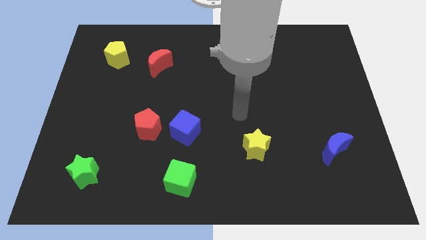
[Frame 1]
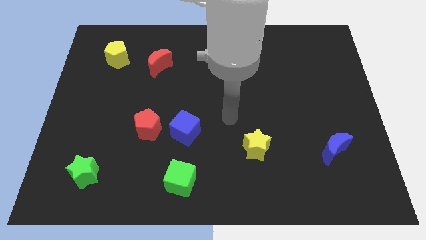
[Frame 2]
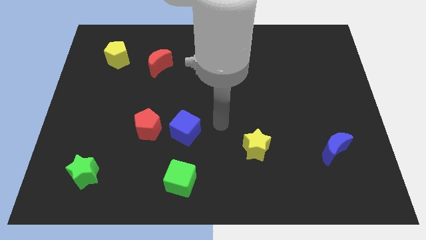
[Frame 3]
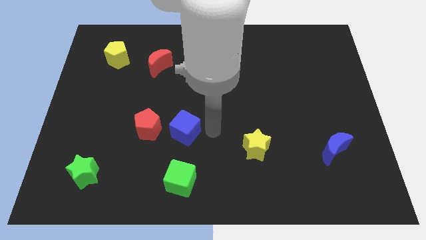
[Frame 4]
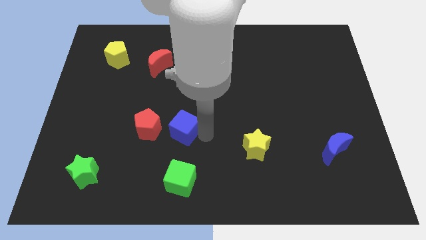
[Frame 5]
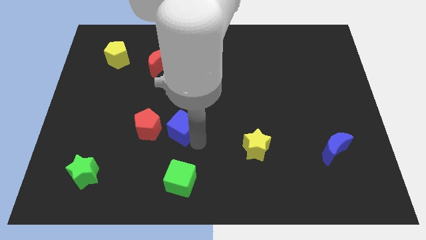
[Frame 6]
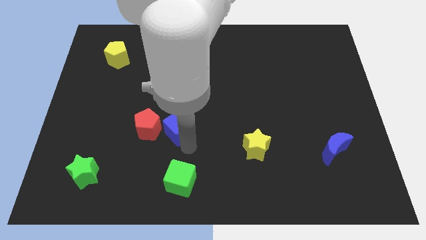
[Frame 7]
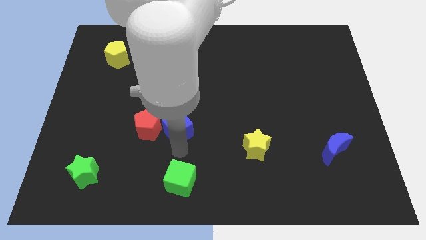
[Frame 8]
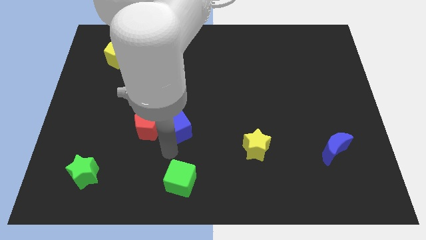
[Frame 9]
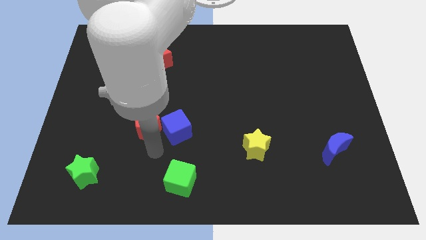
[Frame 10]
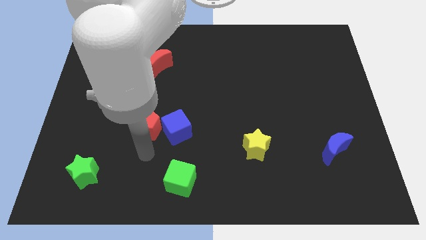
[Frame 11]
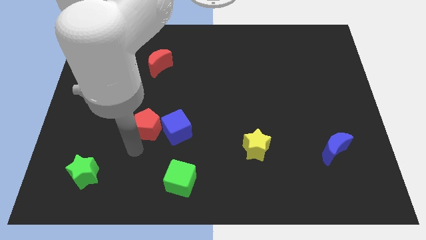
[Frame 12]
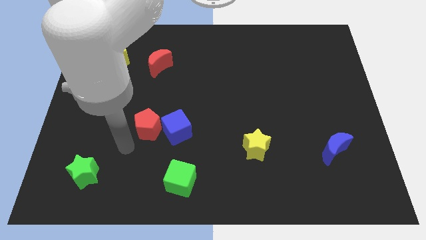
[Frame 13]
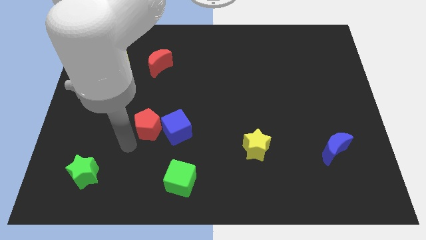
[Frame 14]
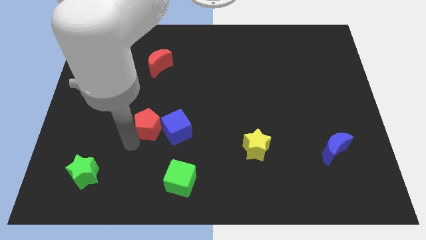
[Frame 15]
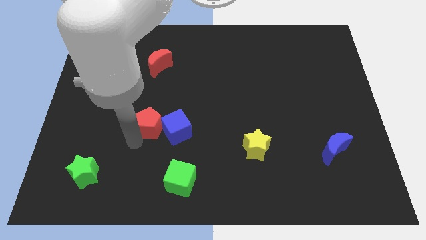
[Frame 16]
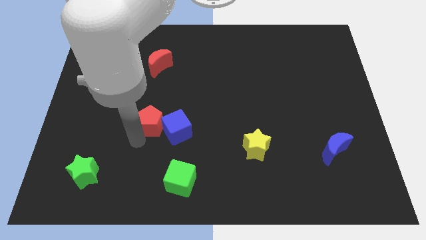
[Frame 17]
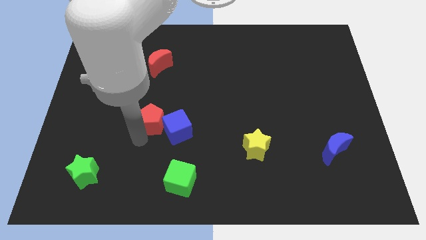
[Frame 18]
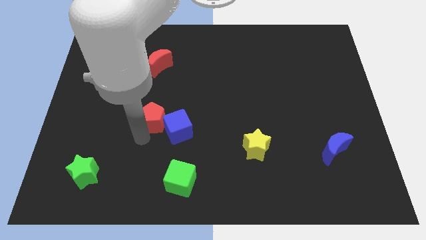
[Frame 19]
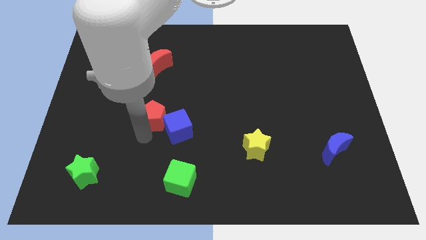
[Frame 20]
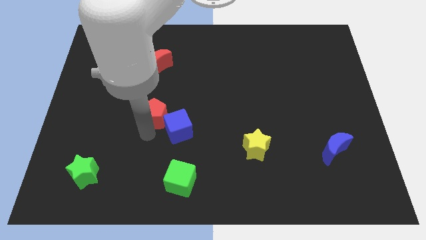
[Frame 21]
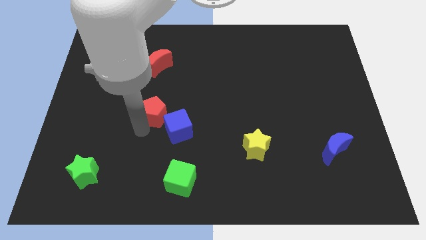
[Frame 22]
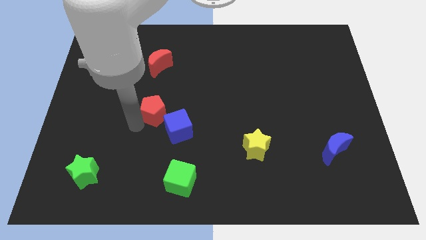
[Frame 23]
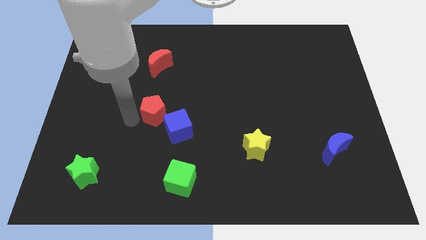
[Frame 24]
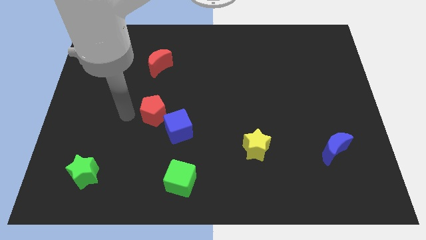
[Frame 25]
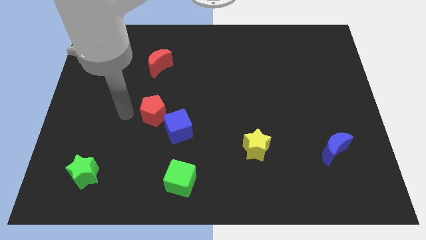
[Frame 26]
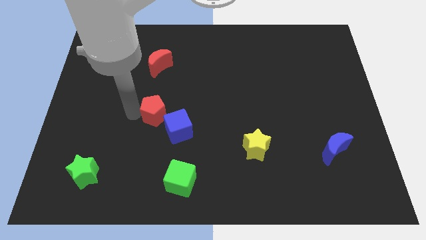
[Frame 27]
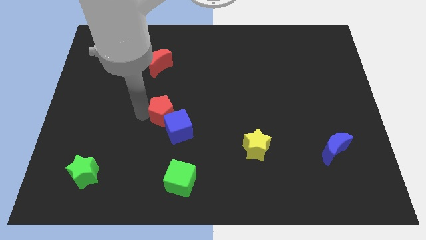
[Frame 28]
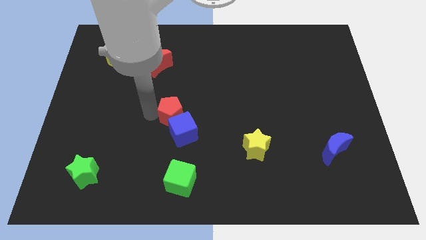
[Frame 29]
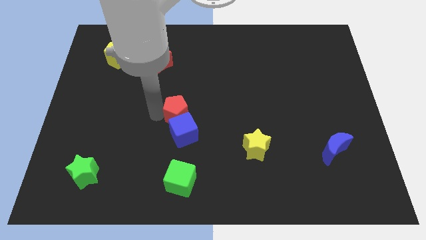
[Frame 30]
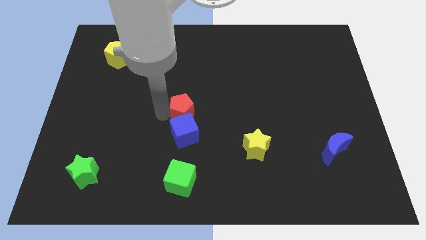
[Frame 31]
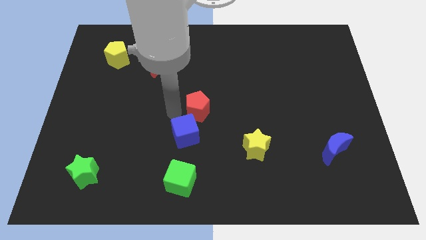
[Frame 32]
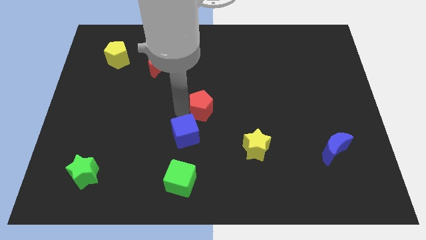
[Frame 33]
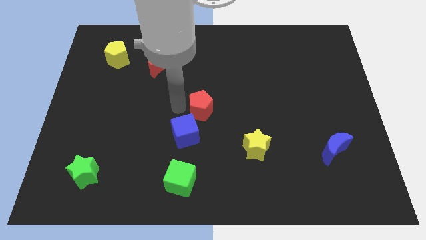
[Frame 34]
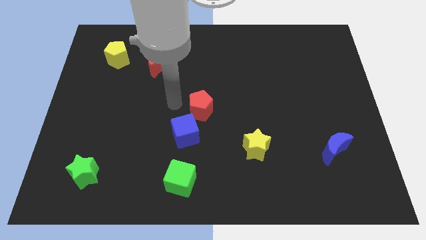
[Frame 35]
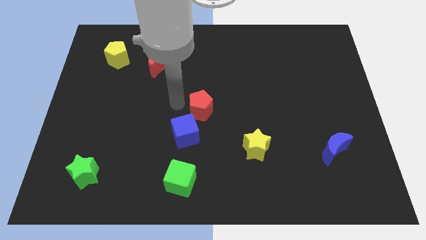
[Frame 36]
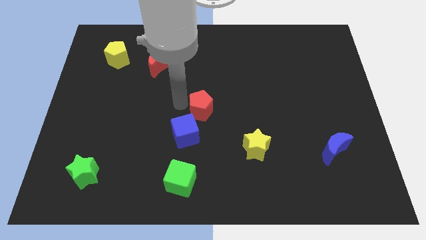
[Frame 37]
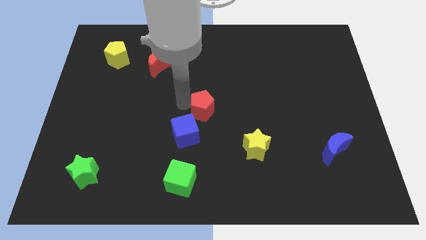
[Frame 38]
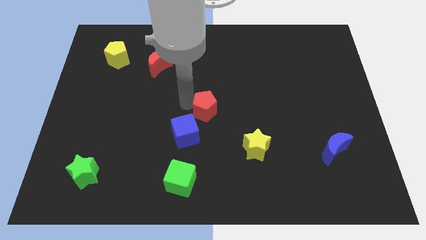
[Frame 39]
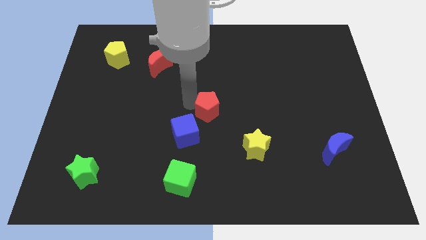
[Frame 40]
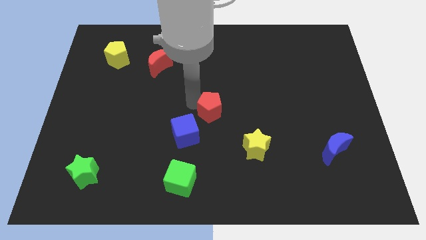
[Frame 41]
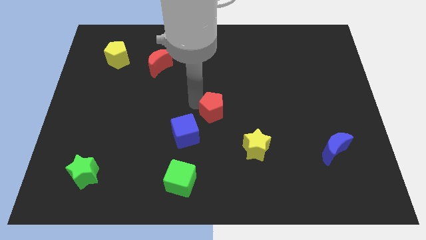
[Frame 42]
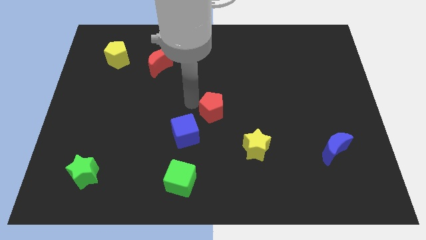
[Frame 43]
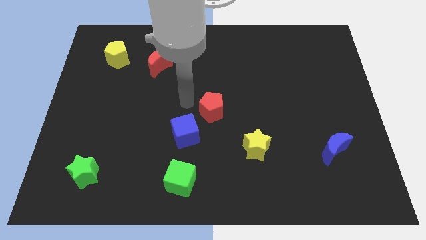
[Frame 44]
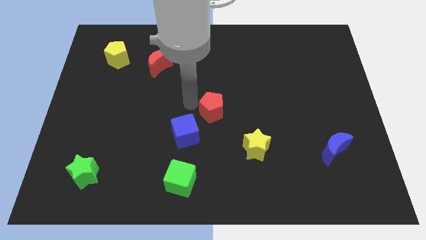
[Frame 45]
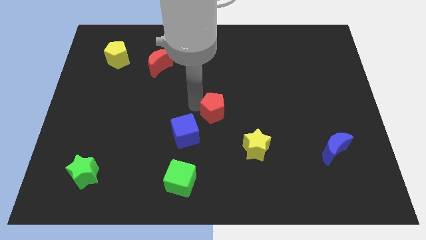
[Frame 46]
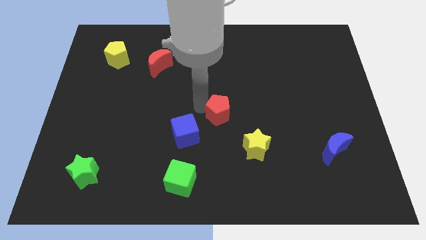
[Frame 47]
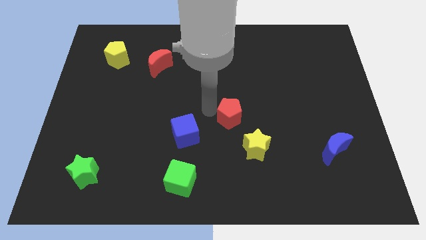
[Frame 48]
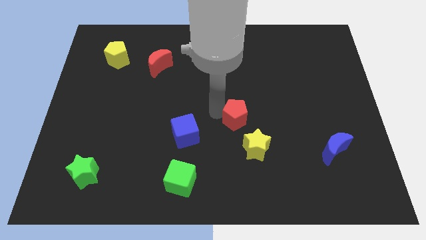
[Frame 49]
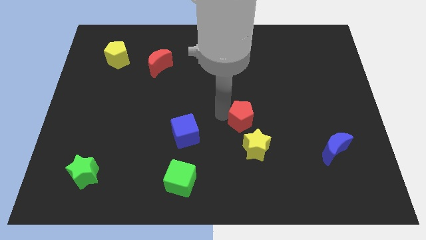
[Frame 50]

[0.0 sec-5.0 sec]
push the red pentagon right

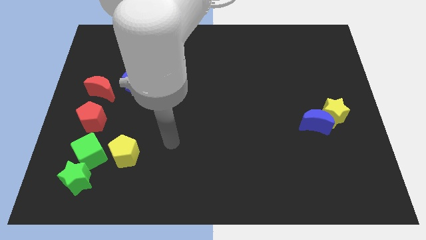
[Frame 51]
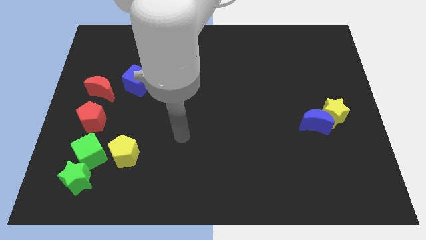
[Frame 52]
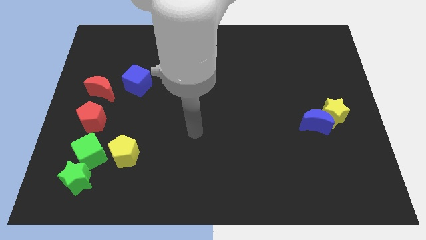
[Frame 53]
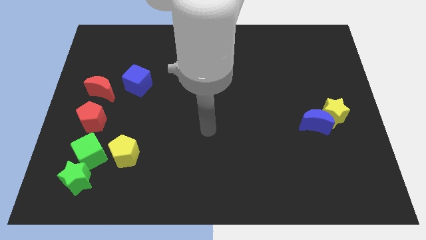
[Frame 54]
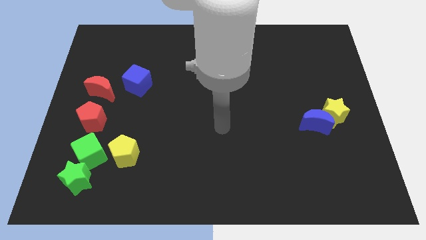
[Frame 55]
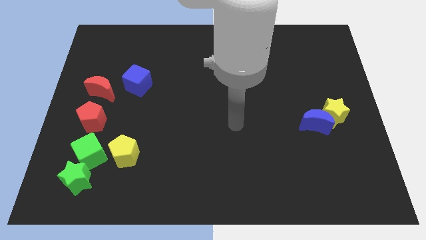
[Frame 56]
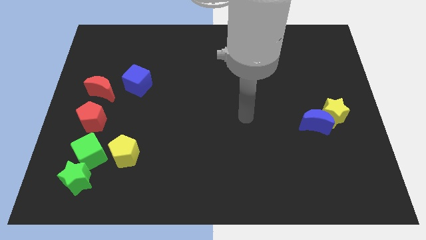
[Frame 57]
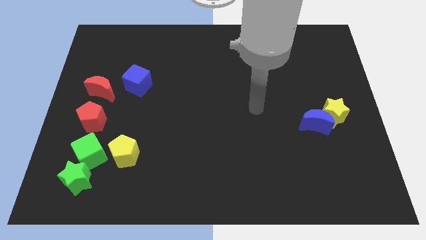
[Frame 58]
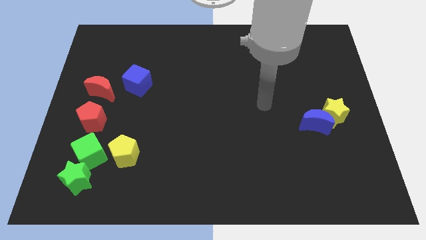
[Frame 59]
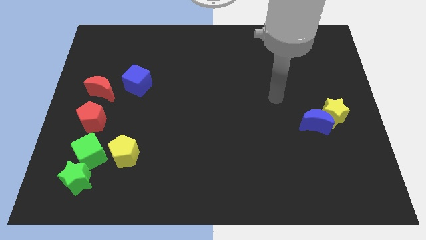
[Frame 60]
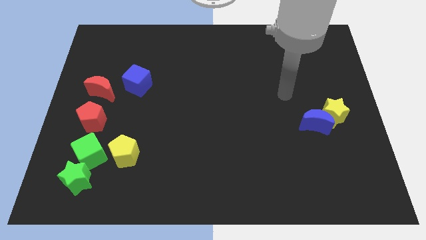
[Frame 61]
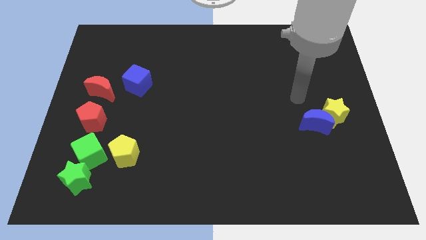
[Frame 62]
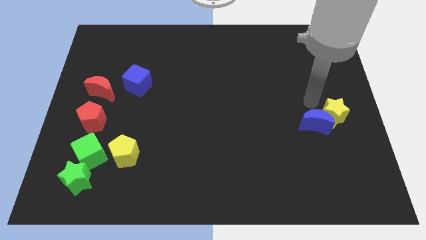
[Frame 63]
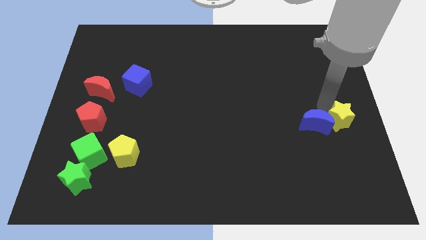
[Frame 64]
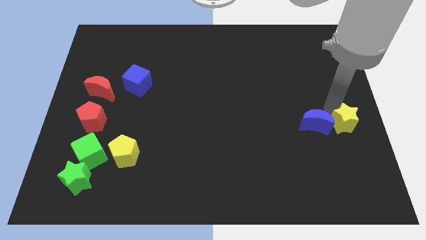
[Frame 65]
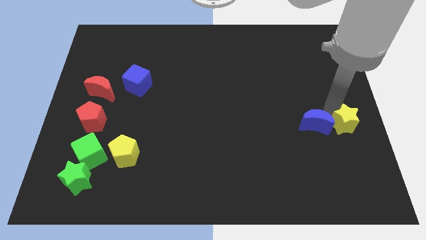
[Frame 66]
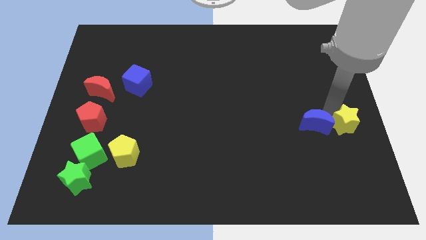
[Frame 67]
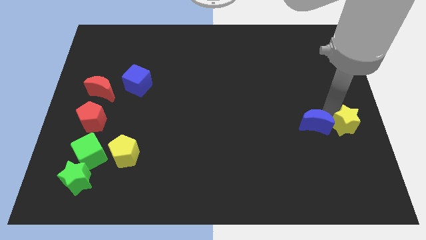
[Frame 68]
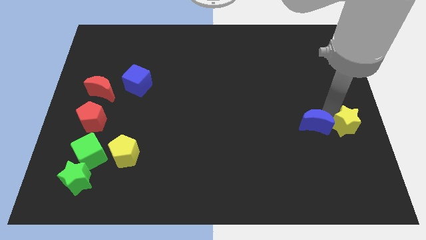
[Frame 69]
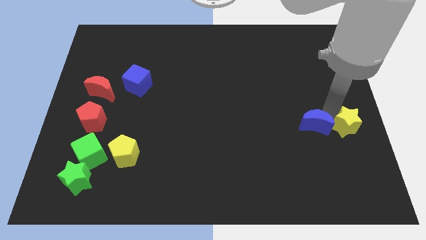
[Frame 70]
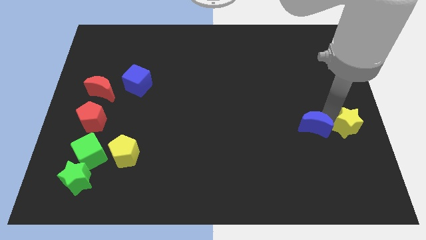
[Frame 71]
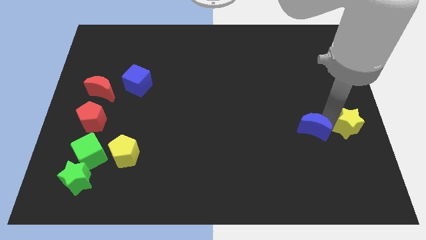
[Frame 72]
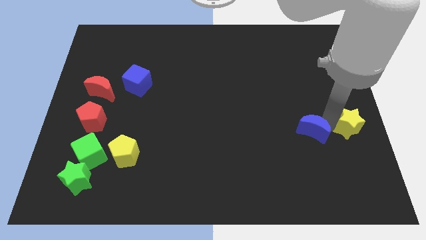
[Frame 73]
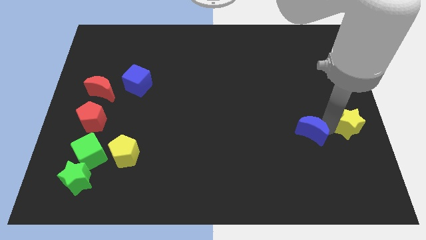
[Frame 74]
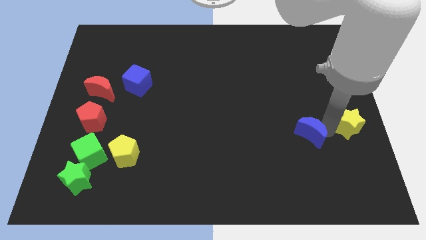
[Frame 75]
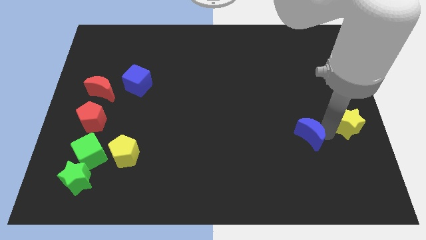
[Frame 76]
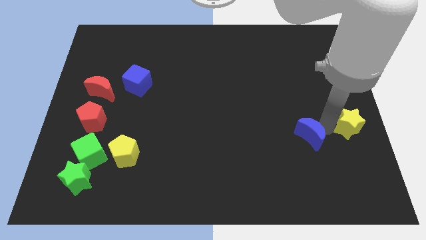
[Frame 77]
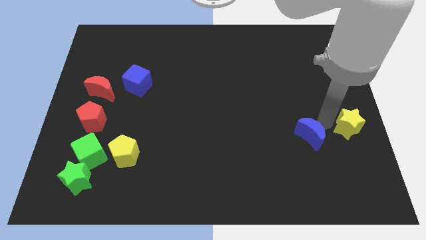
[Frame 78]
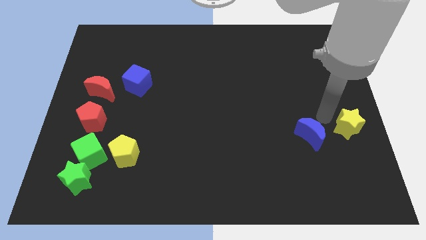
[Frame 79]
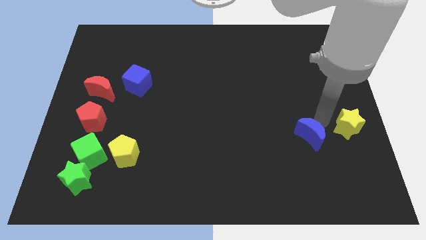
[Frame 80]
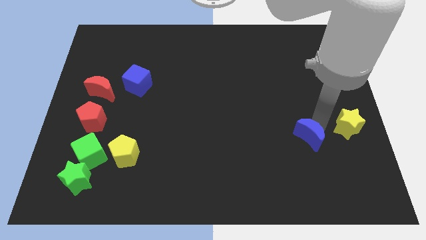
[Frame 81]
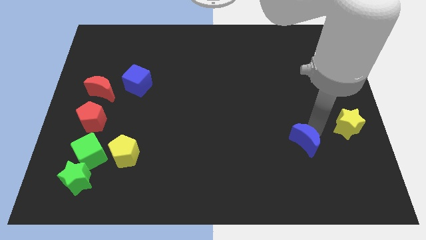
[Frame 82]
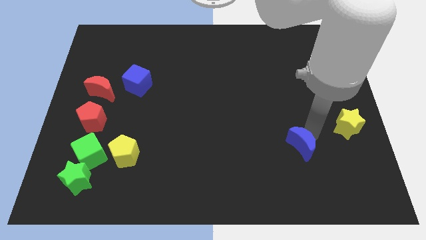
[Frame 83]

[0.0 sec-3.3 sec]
slide the blue moon a little down and to the left diagonally
